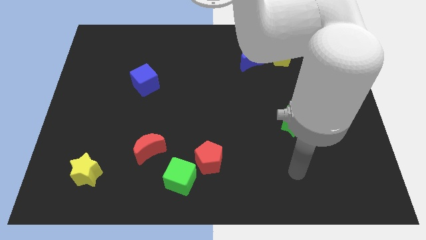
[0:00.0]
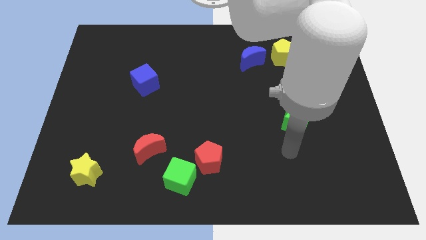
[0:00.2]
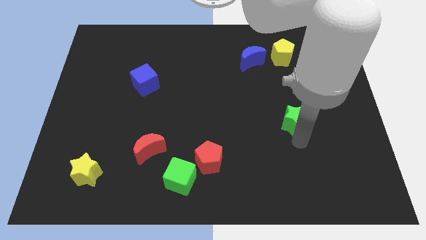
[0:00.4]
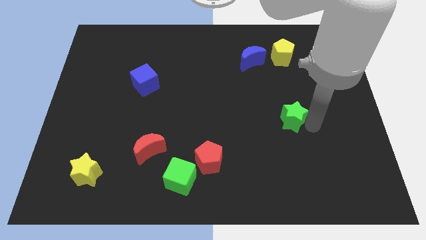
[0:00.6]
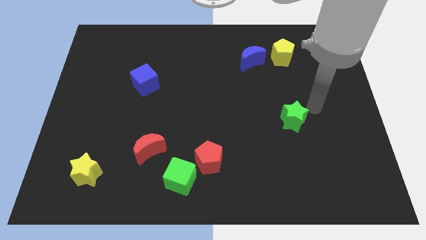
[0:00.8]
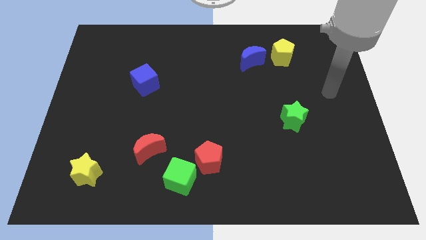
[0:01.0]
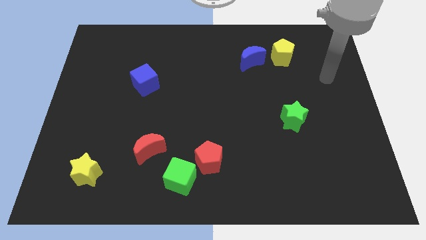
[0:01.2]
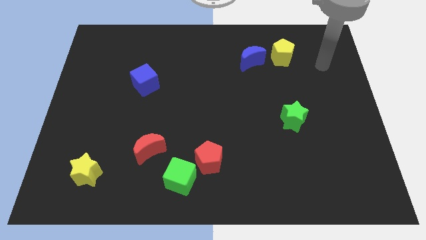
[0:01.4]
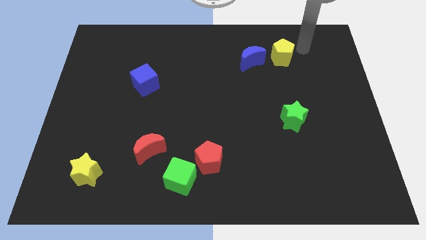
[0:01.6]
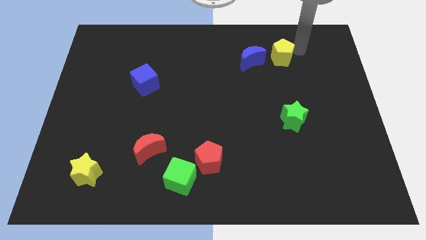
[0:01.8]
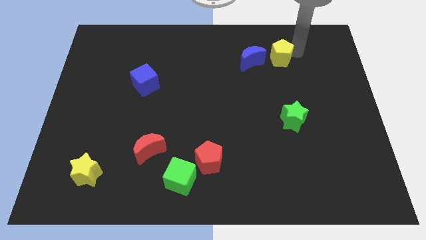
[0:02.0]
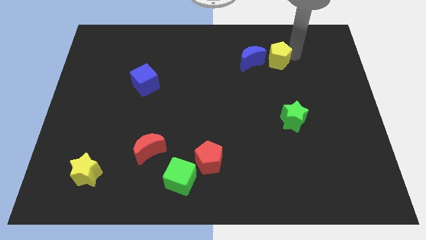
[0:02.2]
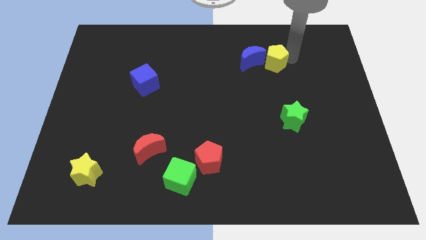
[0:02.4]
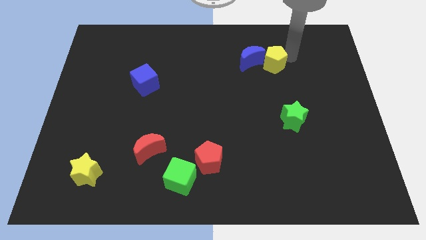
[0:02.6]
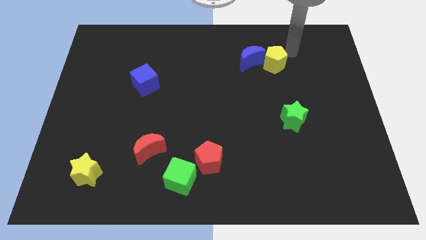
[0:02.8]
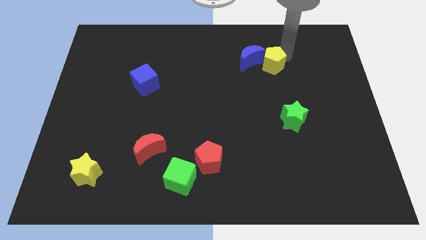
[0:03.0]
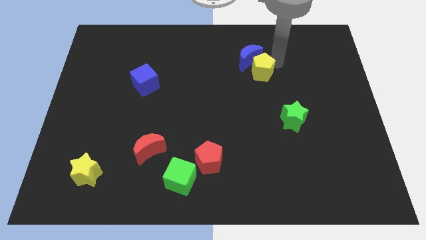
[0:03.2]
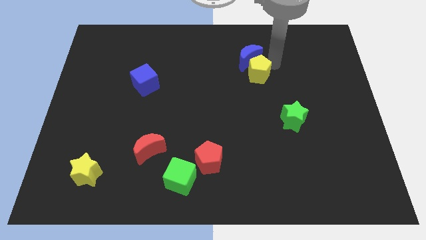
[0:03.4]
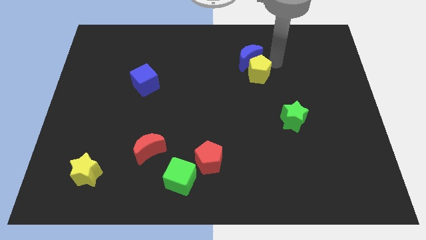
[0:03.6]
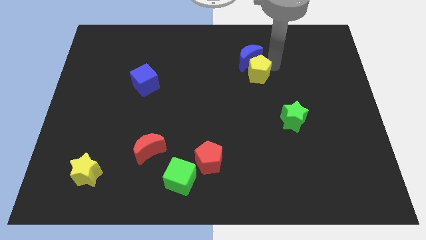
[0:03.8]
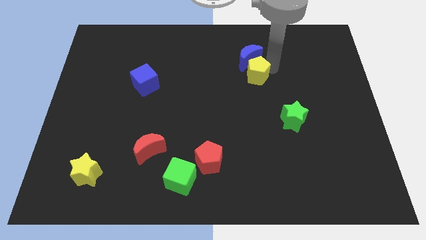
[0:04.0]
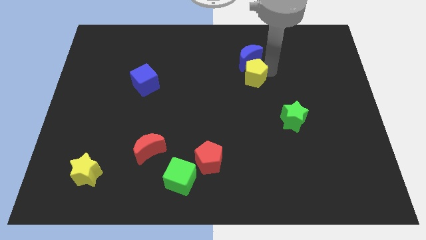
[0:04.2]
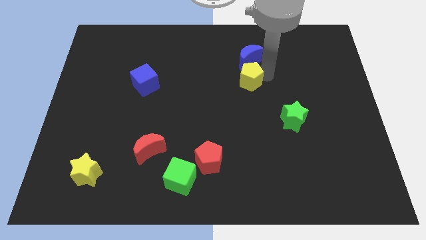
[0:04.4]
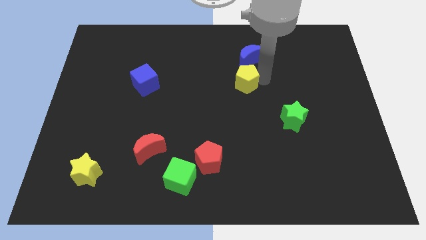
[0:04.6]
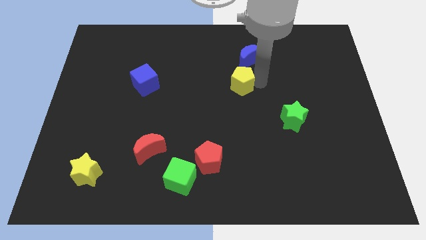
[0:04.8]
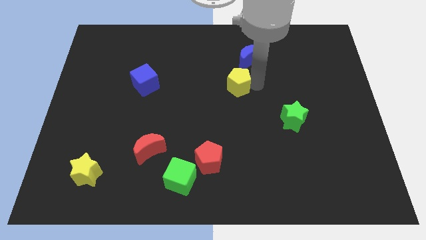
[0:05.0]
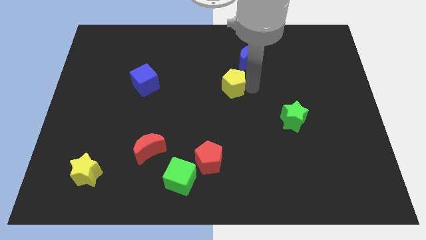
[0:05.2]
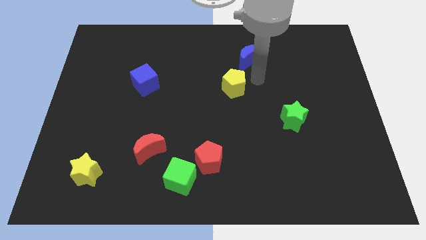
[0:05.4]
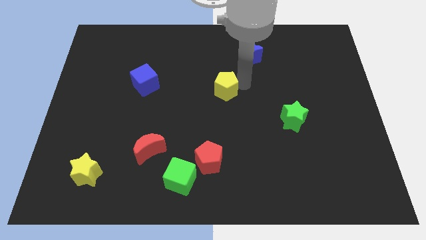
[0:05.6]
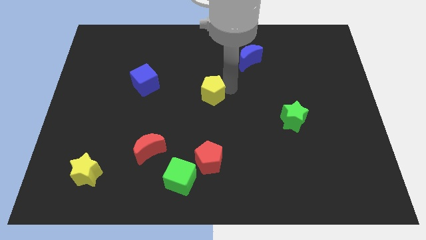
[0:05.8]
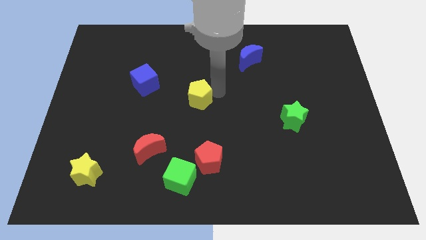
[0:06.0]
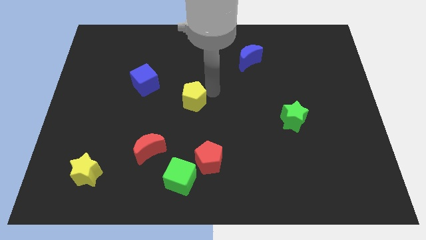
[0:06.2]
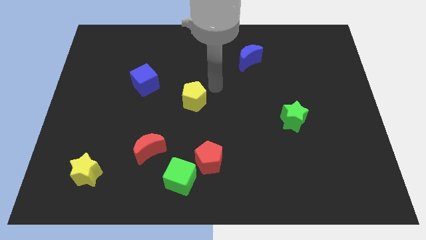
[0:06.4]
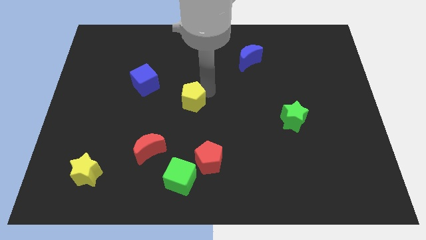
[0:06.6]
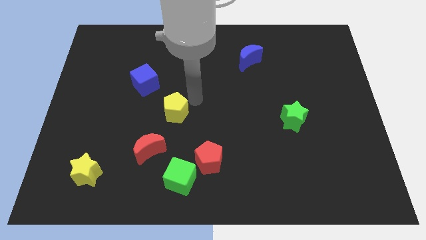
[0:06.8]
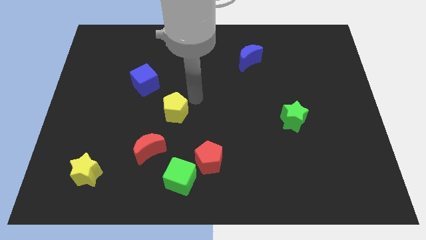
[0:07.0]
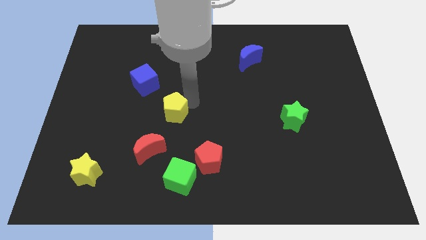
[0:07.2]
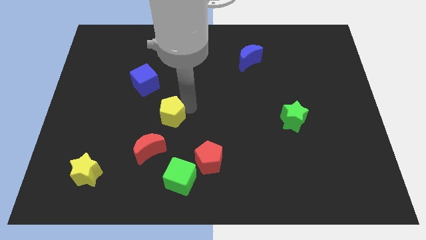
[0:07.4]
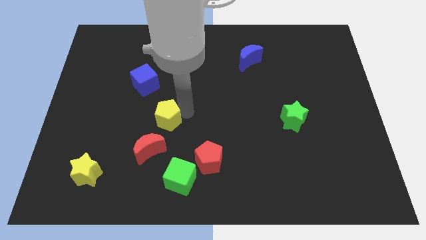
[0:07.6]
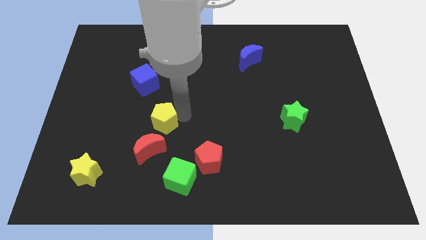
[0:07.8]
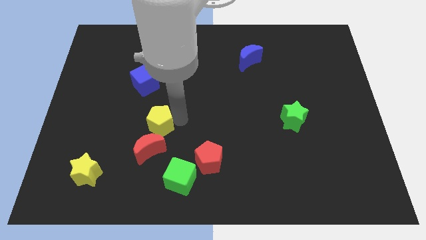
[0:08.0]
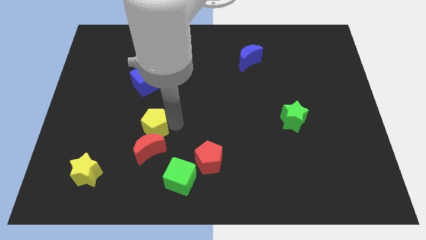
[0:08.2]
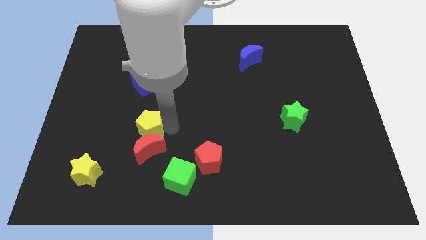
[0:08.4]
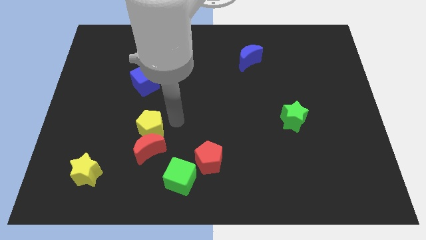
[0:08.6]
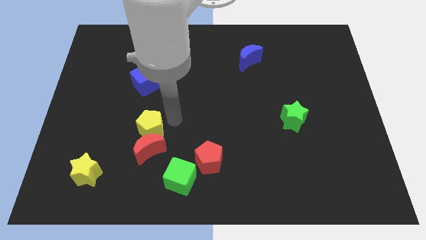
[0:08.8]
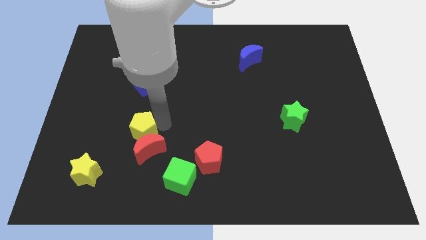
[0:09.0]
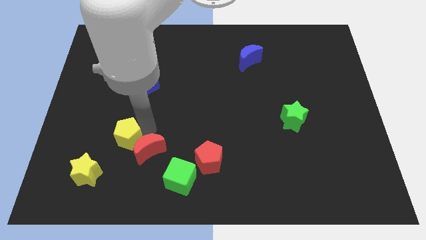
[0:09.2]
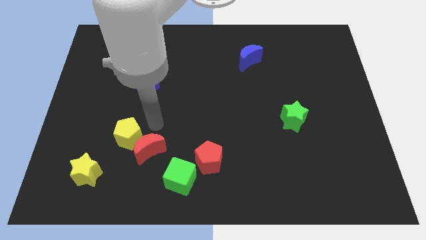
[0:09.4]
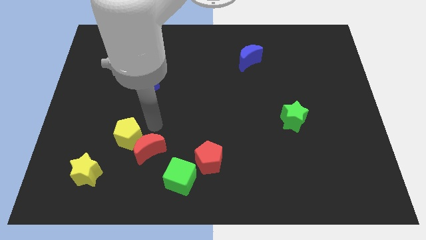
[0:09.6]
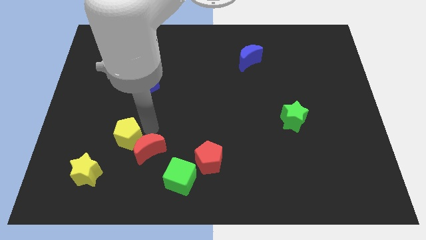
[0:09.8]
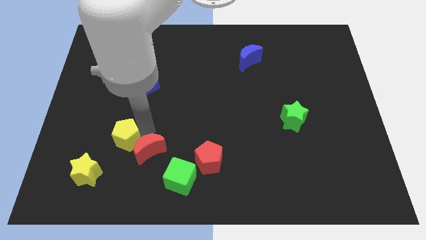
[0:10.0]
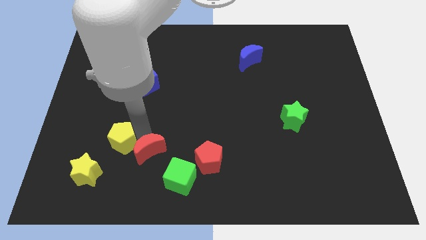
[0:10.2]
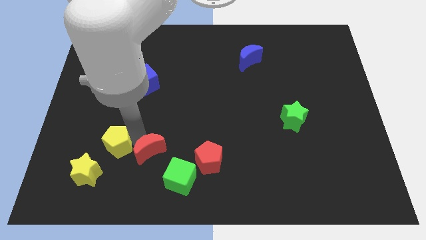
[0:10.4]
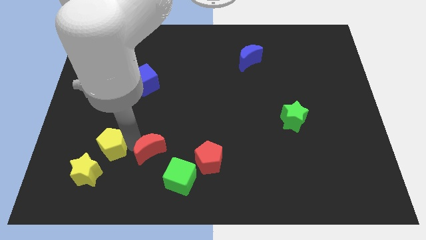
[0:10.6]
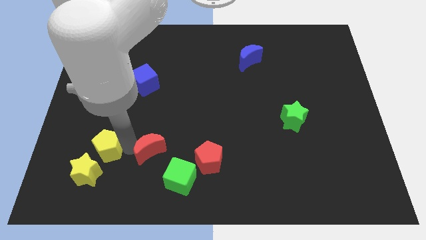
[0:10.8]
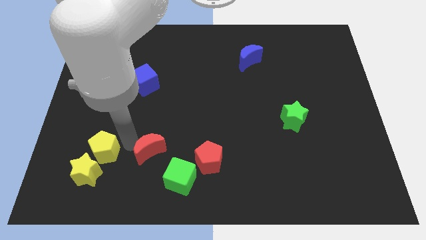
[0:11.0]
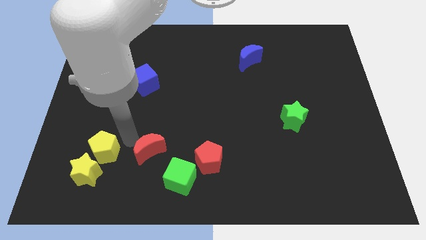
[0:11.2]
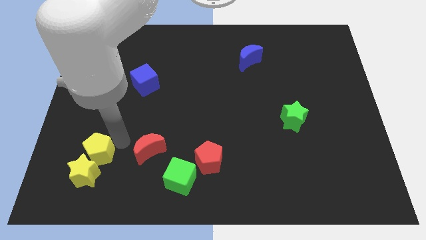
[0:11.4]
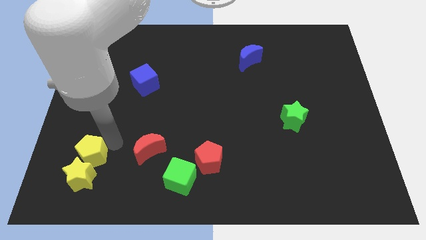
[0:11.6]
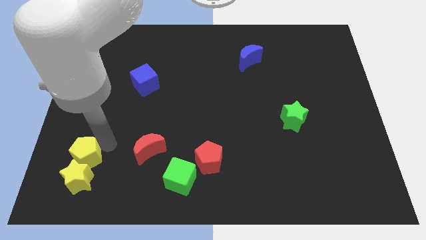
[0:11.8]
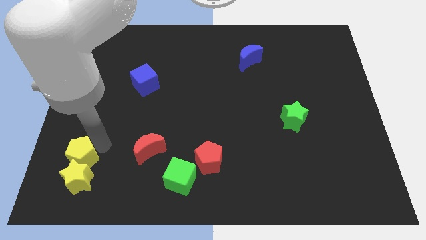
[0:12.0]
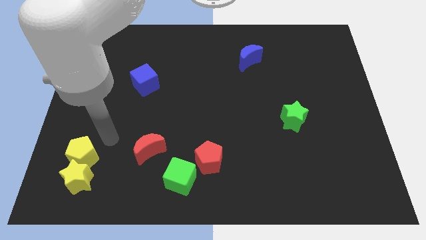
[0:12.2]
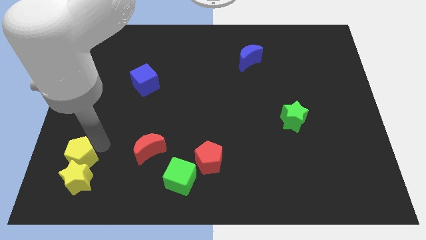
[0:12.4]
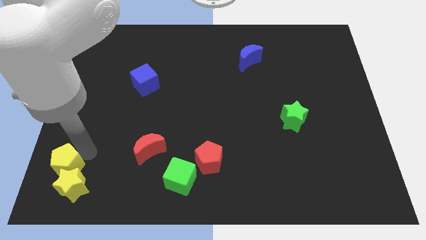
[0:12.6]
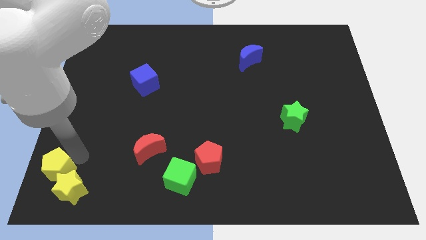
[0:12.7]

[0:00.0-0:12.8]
push the yellow pentagon to the bottom left
